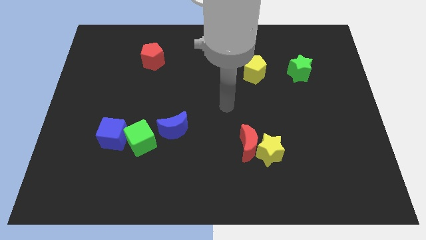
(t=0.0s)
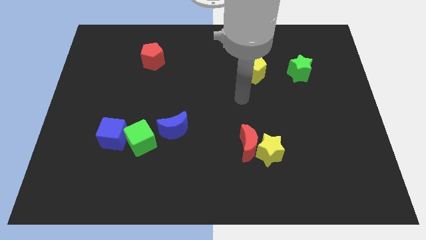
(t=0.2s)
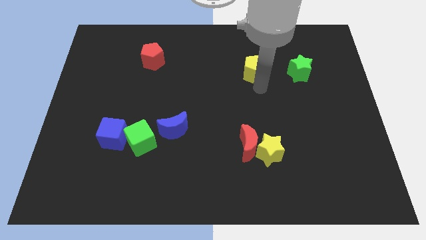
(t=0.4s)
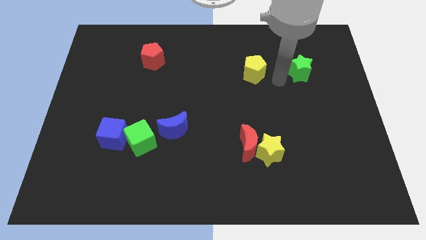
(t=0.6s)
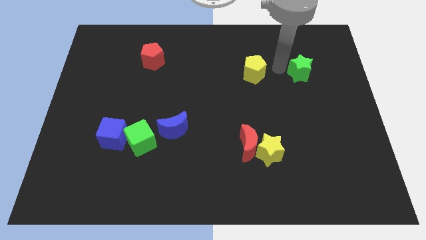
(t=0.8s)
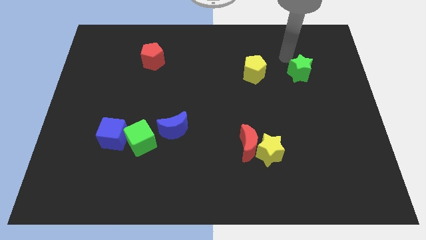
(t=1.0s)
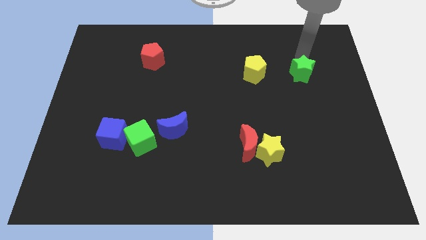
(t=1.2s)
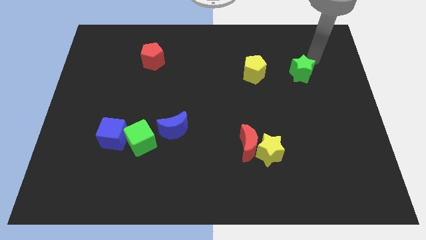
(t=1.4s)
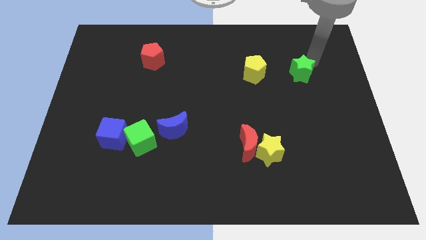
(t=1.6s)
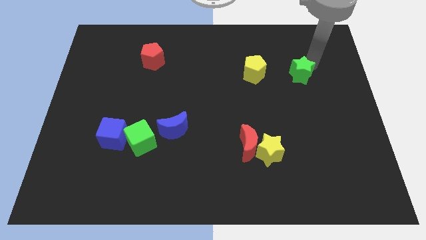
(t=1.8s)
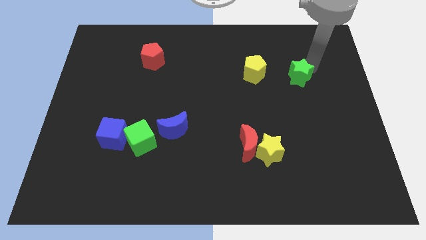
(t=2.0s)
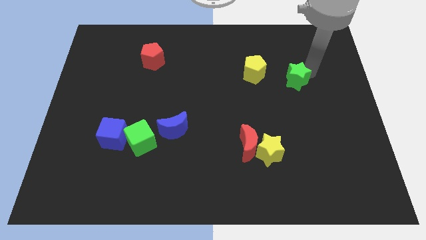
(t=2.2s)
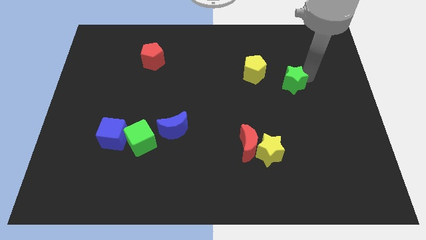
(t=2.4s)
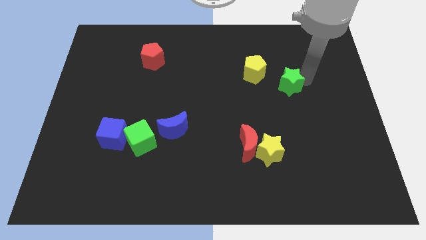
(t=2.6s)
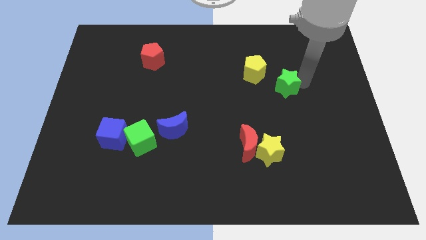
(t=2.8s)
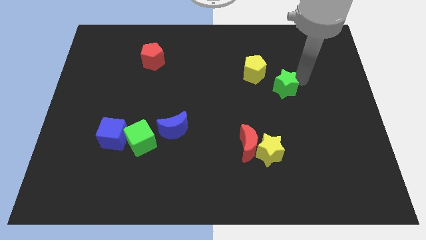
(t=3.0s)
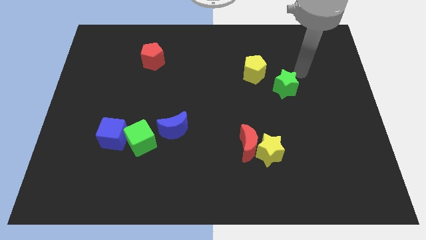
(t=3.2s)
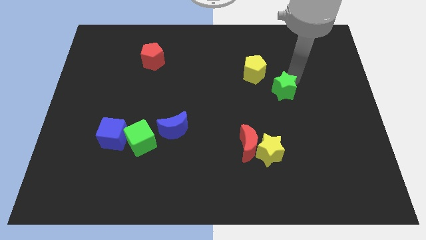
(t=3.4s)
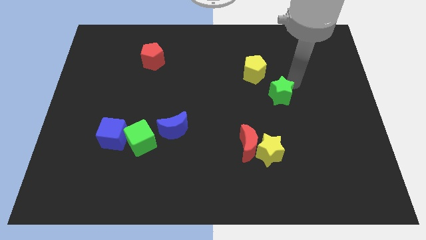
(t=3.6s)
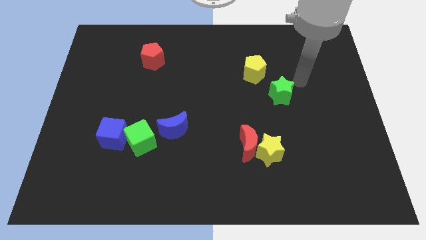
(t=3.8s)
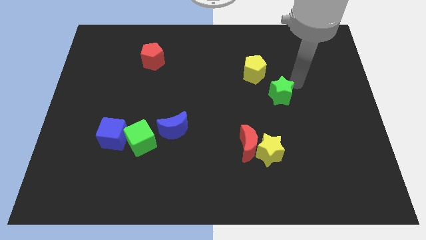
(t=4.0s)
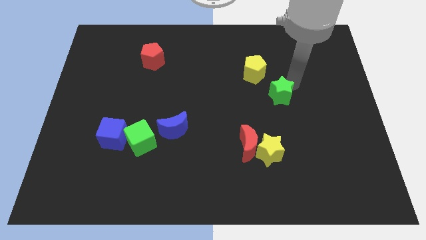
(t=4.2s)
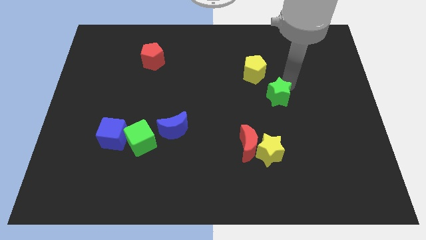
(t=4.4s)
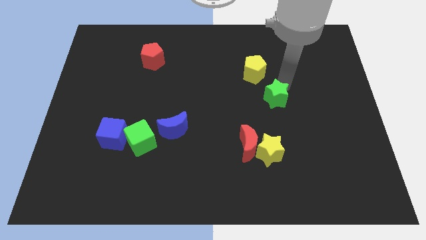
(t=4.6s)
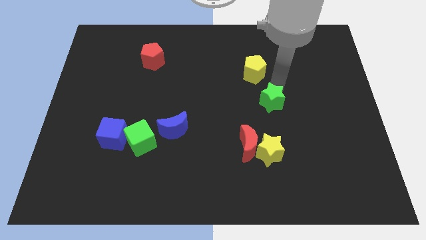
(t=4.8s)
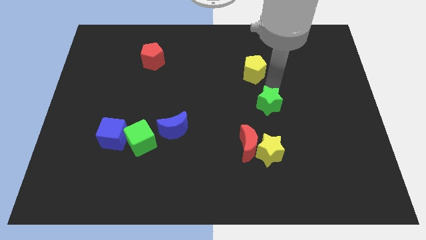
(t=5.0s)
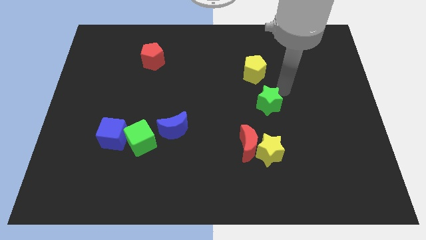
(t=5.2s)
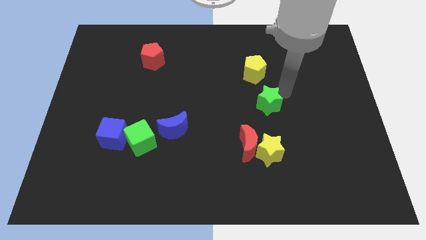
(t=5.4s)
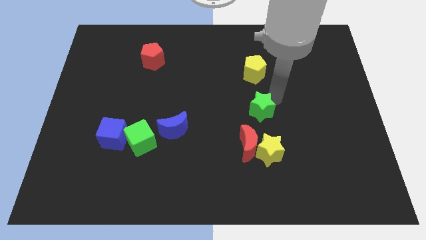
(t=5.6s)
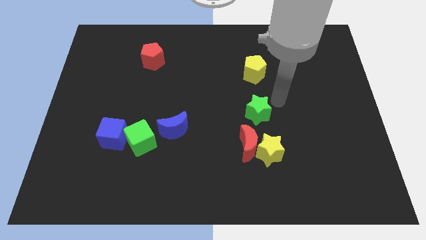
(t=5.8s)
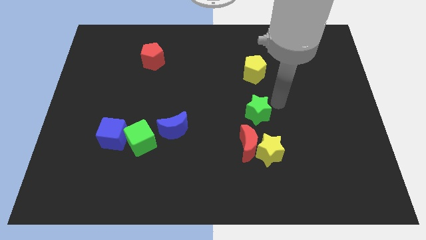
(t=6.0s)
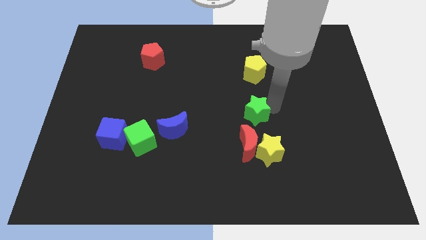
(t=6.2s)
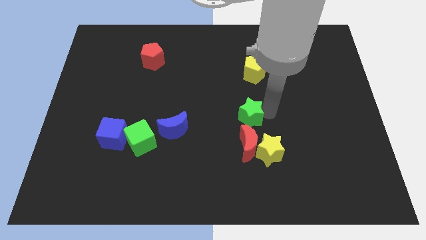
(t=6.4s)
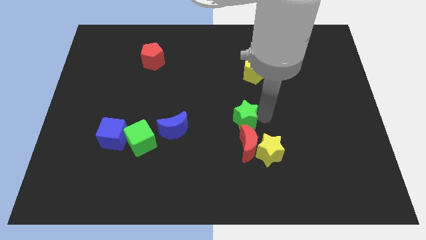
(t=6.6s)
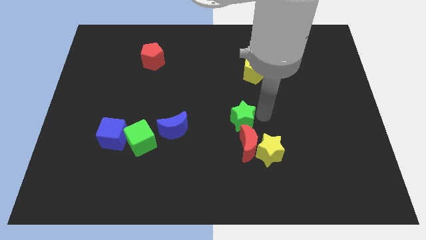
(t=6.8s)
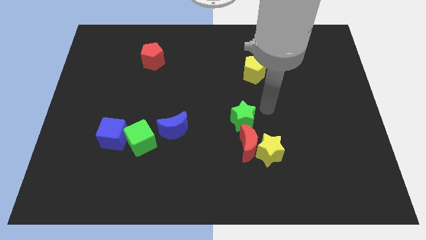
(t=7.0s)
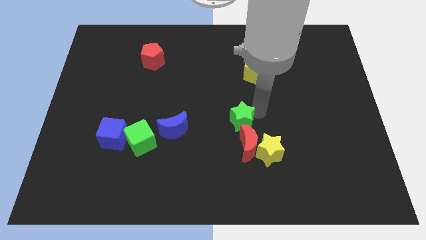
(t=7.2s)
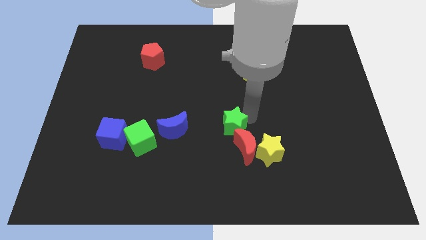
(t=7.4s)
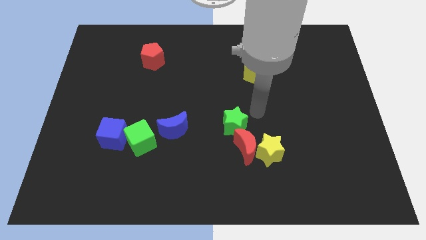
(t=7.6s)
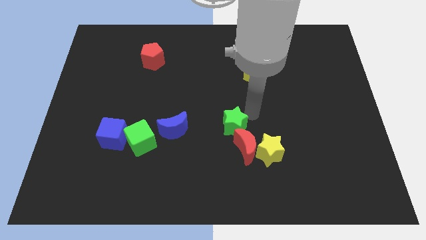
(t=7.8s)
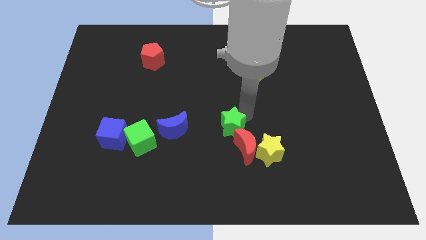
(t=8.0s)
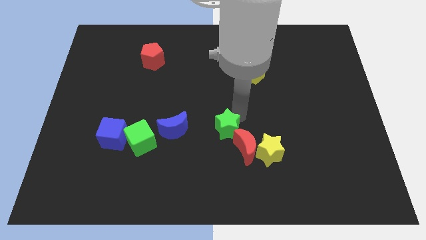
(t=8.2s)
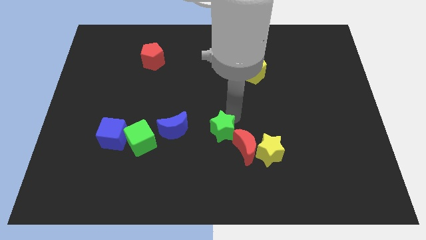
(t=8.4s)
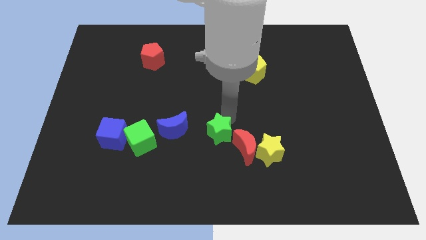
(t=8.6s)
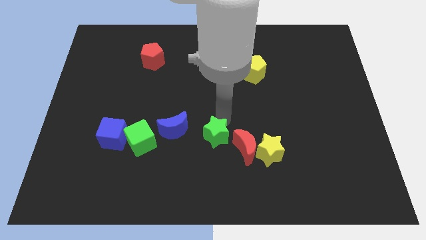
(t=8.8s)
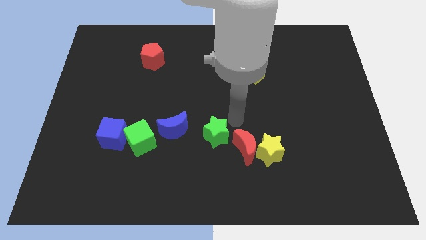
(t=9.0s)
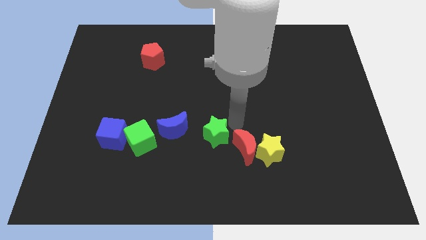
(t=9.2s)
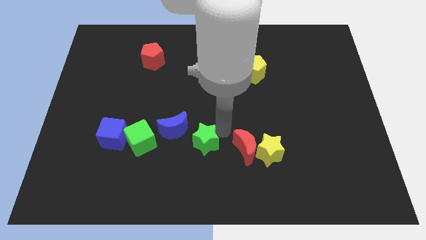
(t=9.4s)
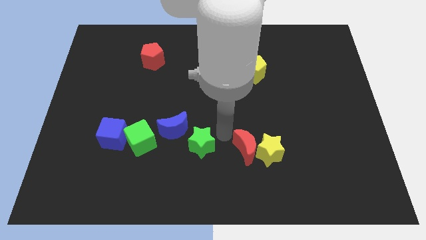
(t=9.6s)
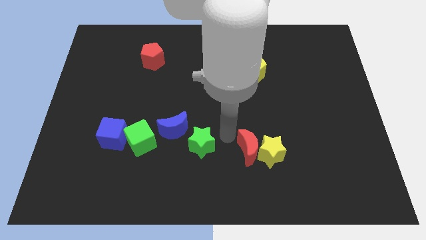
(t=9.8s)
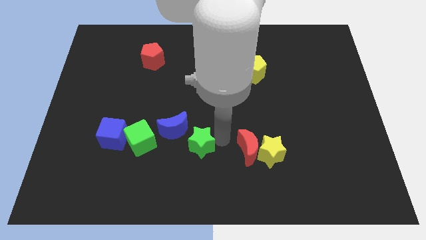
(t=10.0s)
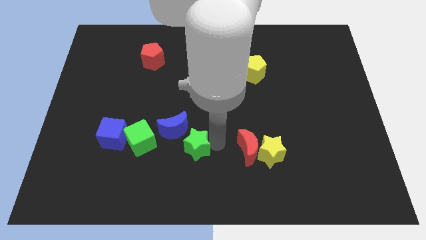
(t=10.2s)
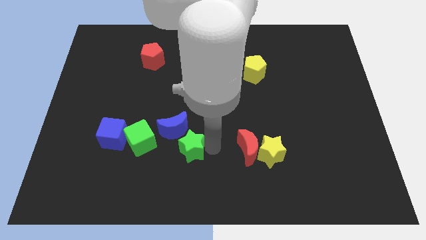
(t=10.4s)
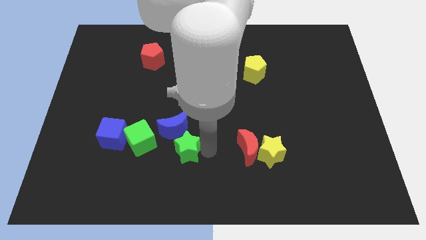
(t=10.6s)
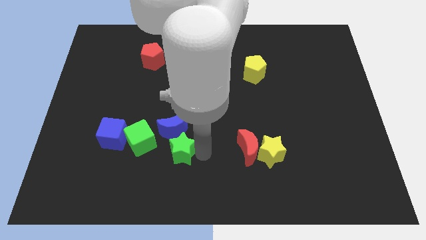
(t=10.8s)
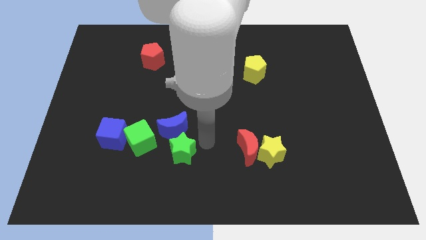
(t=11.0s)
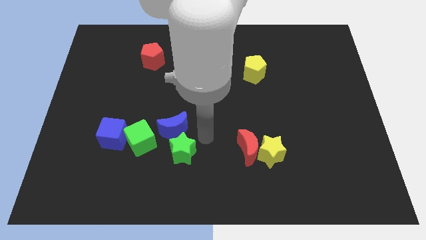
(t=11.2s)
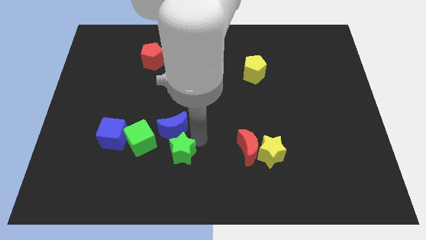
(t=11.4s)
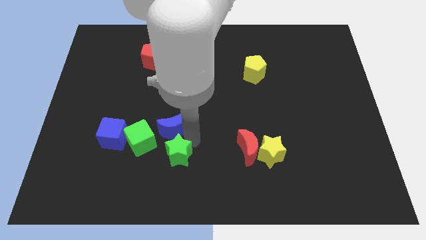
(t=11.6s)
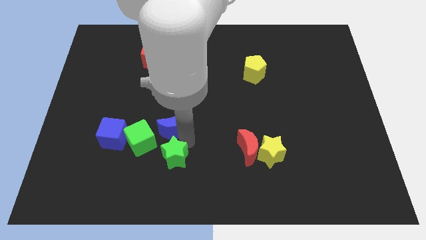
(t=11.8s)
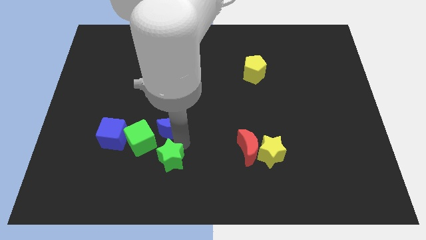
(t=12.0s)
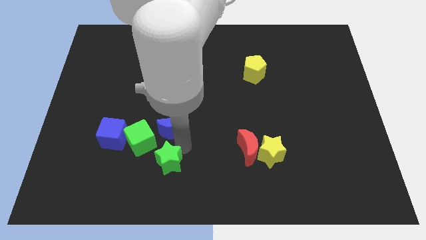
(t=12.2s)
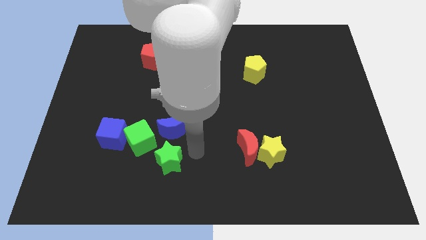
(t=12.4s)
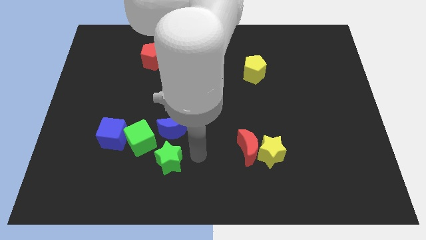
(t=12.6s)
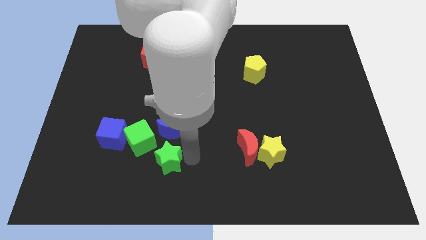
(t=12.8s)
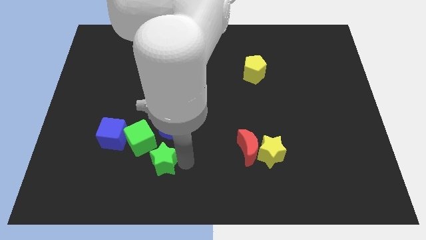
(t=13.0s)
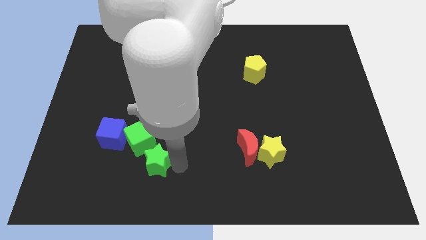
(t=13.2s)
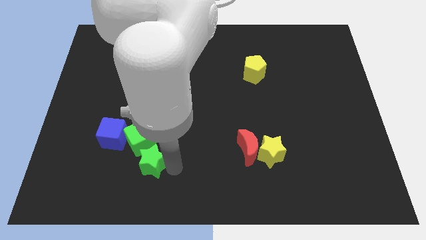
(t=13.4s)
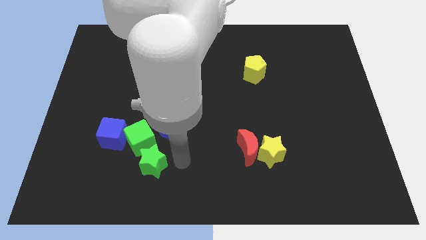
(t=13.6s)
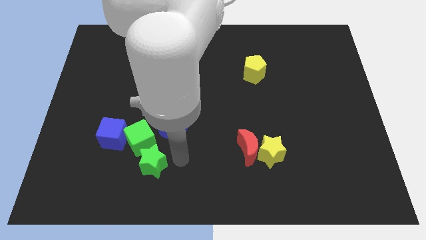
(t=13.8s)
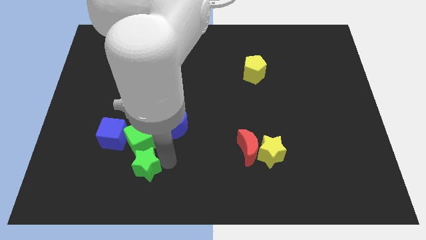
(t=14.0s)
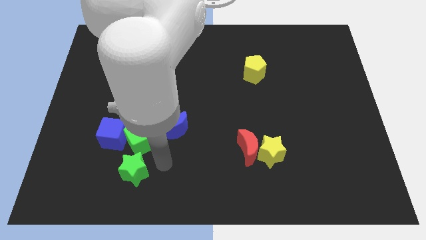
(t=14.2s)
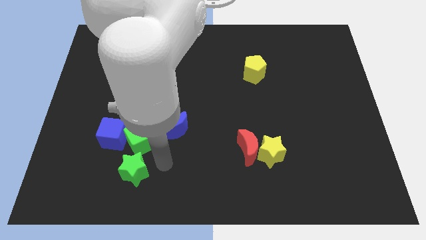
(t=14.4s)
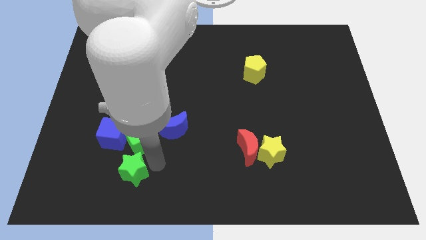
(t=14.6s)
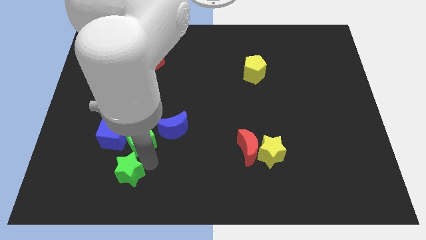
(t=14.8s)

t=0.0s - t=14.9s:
move the green star below the blue cube
